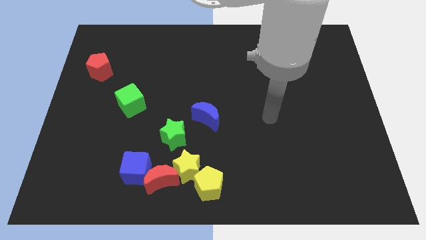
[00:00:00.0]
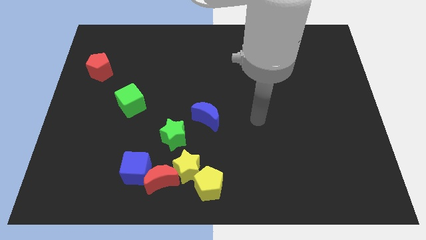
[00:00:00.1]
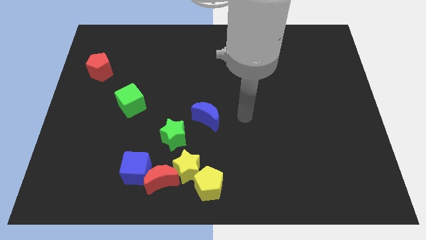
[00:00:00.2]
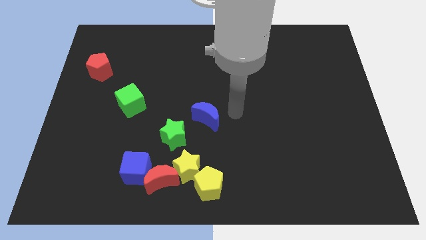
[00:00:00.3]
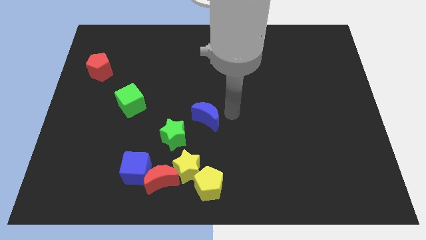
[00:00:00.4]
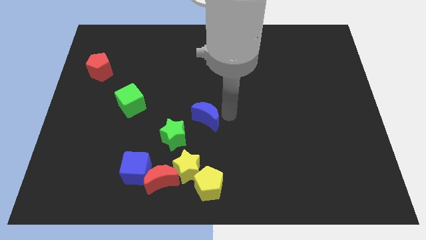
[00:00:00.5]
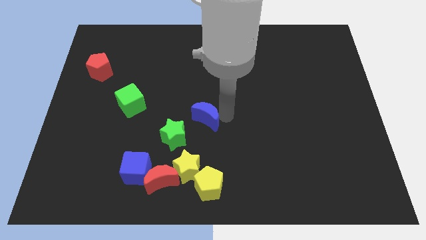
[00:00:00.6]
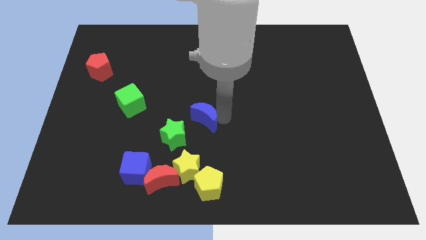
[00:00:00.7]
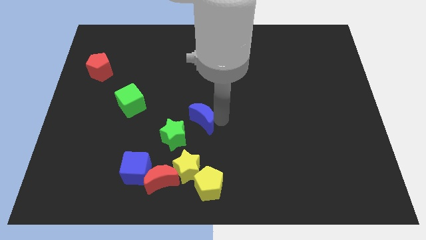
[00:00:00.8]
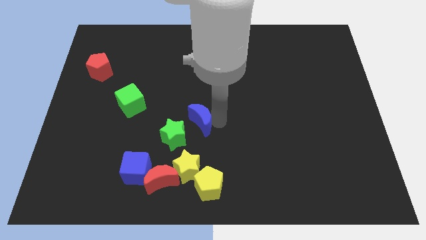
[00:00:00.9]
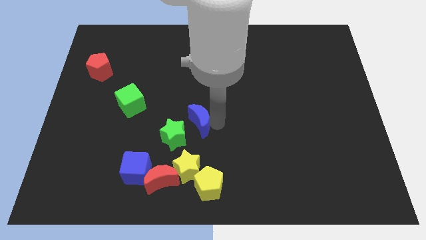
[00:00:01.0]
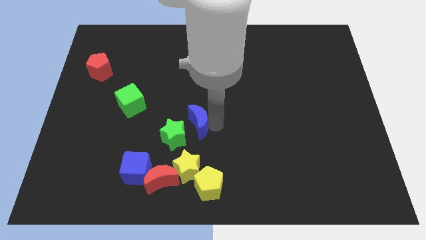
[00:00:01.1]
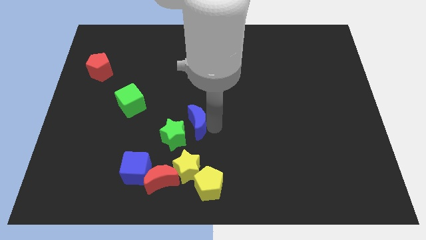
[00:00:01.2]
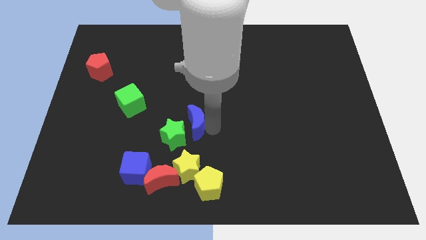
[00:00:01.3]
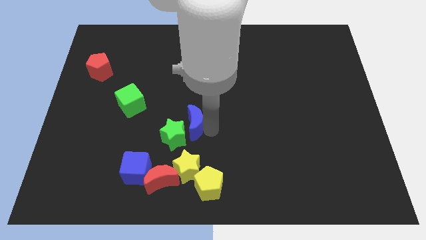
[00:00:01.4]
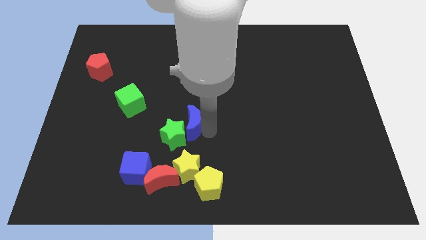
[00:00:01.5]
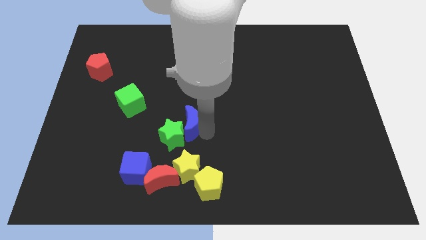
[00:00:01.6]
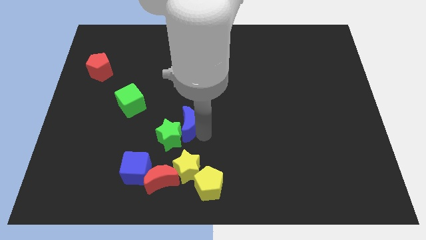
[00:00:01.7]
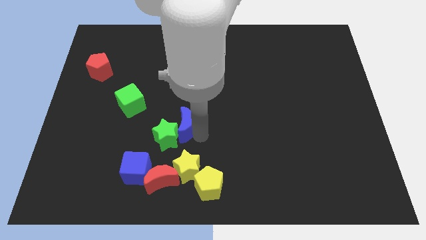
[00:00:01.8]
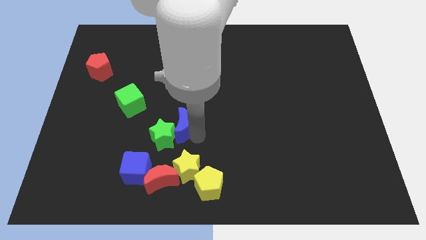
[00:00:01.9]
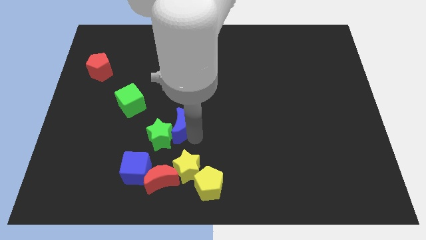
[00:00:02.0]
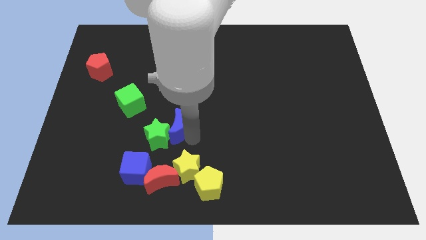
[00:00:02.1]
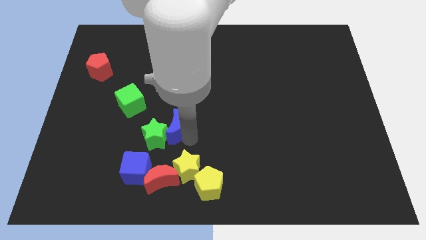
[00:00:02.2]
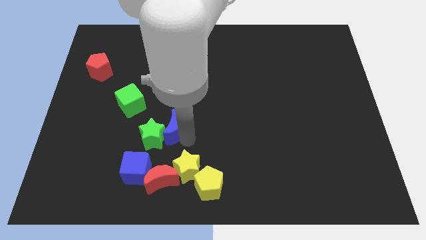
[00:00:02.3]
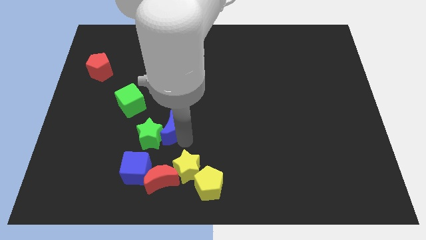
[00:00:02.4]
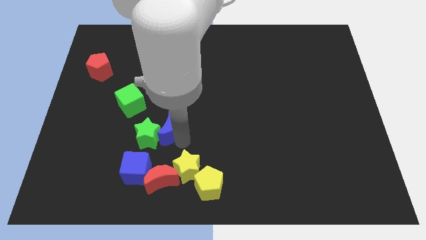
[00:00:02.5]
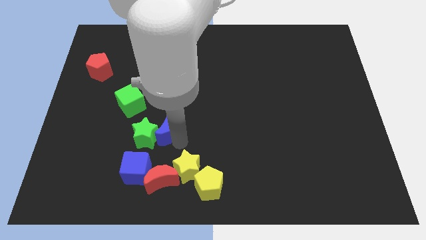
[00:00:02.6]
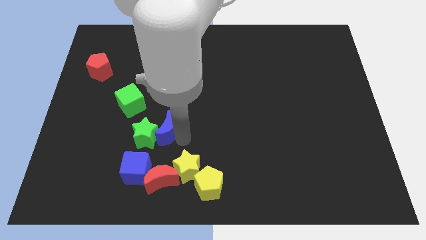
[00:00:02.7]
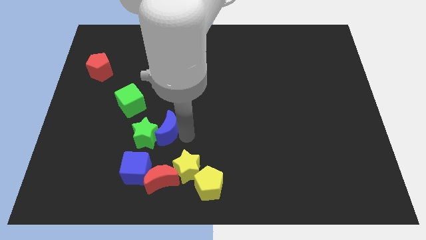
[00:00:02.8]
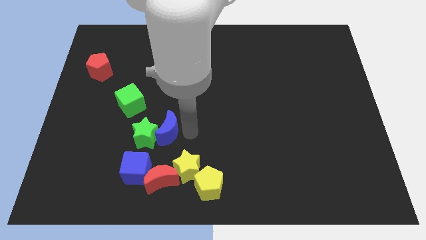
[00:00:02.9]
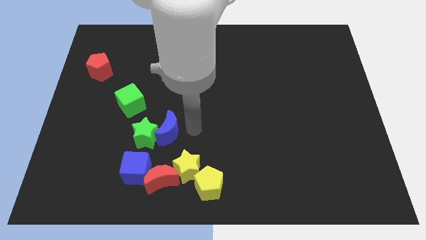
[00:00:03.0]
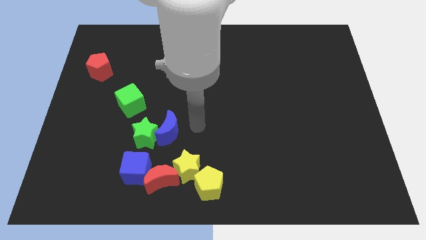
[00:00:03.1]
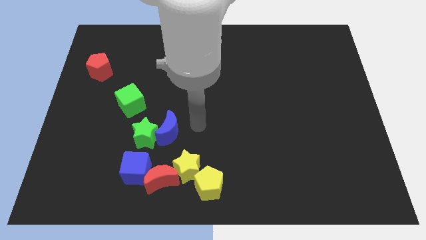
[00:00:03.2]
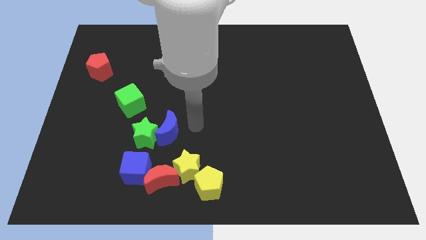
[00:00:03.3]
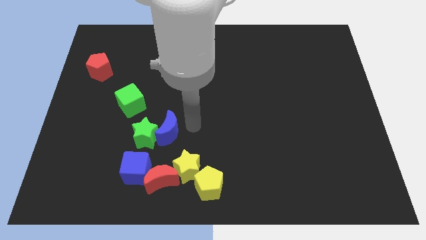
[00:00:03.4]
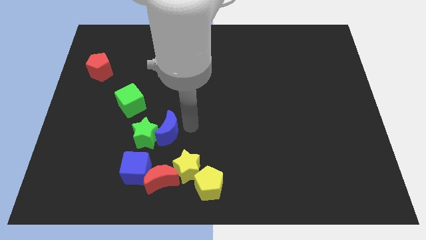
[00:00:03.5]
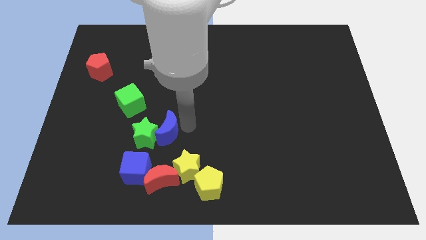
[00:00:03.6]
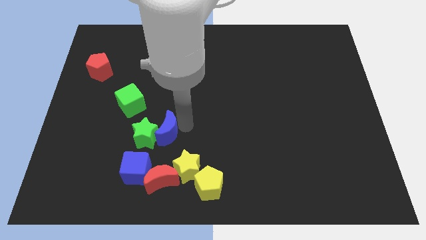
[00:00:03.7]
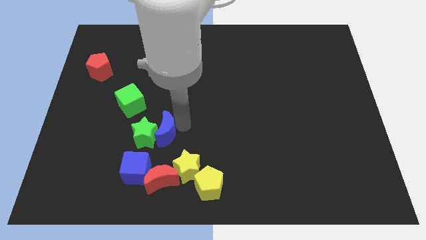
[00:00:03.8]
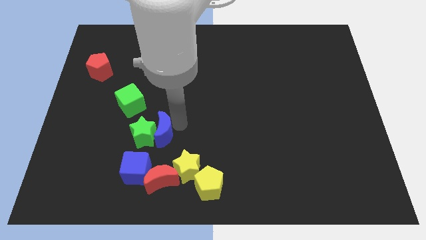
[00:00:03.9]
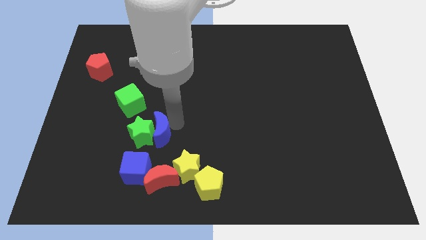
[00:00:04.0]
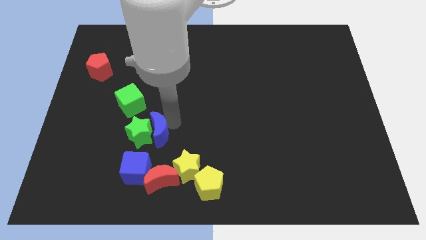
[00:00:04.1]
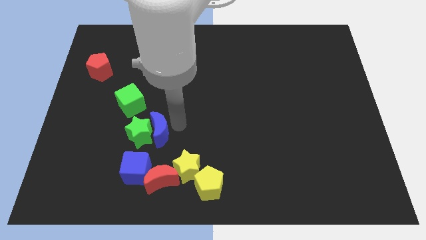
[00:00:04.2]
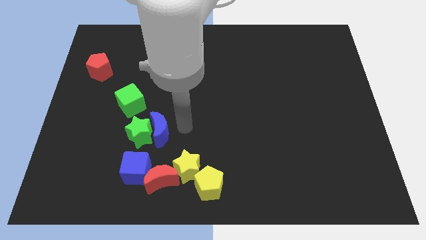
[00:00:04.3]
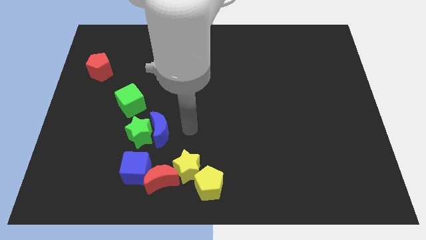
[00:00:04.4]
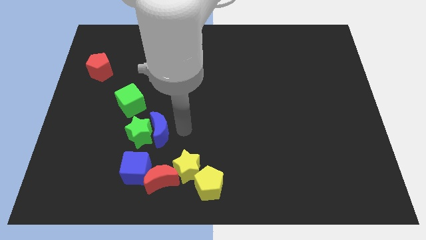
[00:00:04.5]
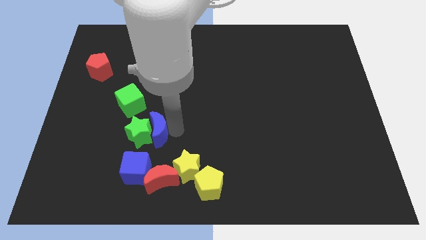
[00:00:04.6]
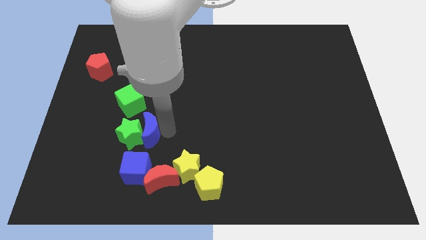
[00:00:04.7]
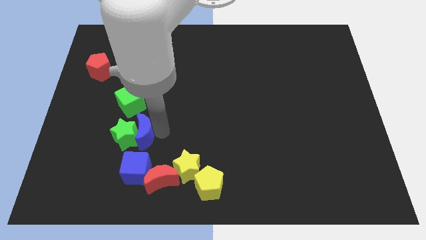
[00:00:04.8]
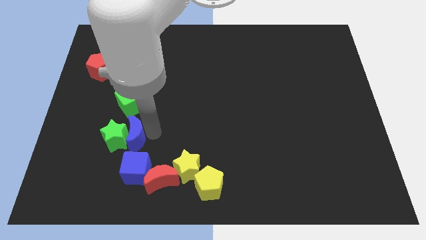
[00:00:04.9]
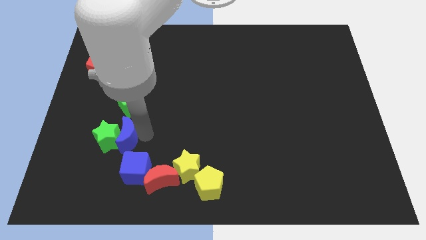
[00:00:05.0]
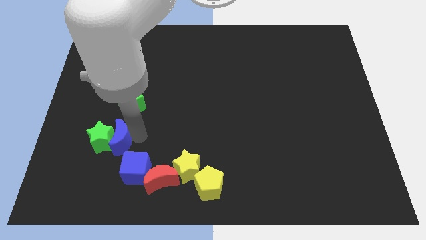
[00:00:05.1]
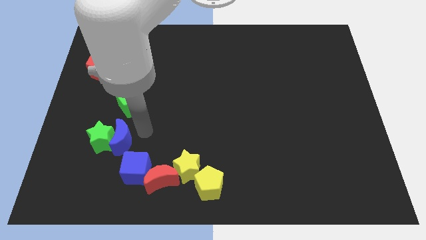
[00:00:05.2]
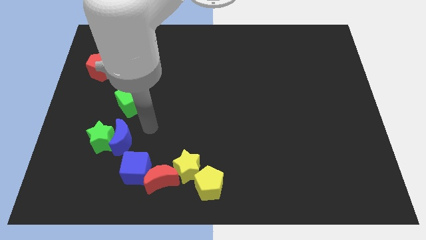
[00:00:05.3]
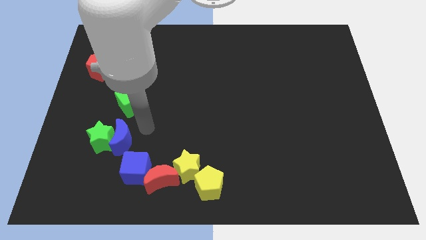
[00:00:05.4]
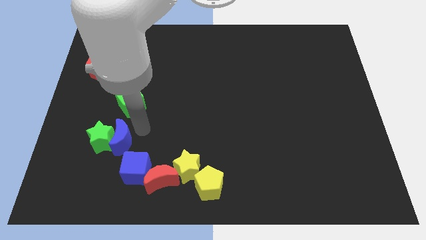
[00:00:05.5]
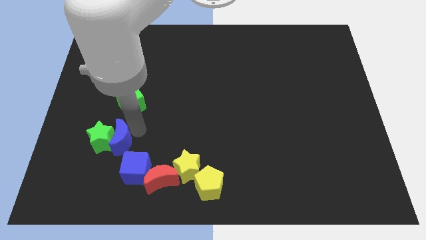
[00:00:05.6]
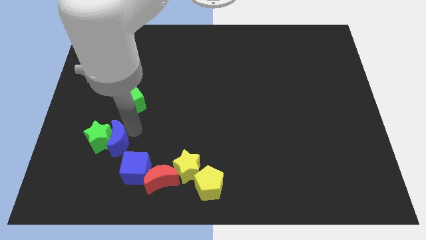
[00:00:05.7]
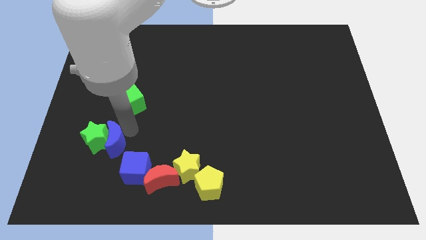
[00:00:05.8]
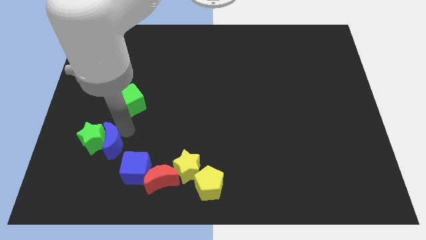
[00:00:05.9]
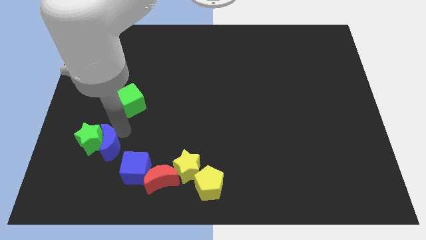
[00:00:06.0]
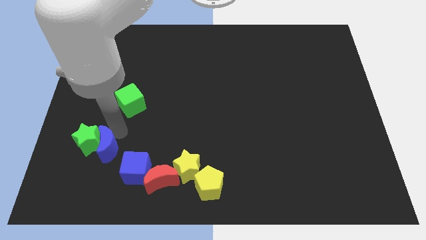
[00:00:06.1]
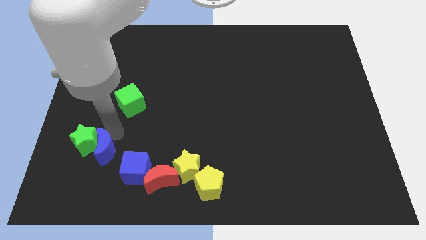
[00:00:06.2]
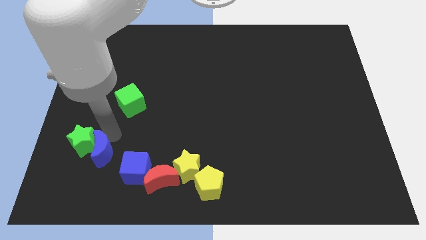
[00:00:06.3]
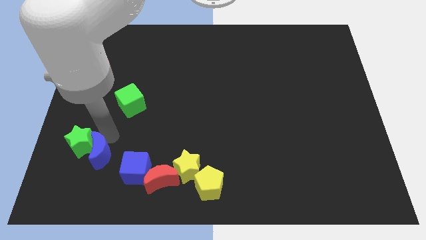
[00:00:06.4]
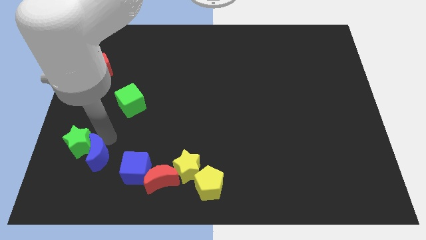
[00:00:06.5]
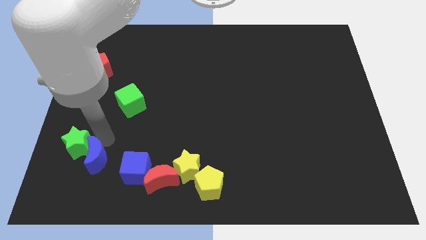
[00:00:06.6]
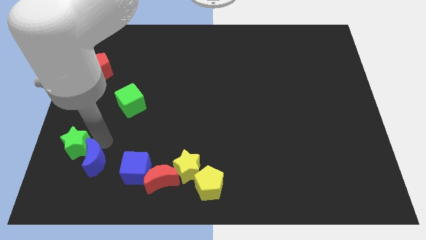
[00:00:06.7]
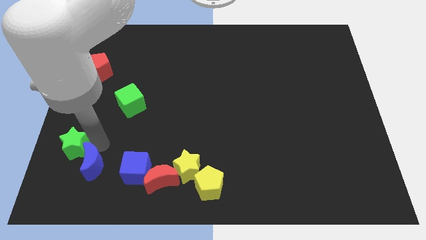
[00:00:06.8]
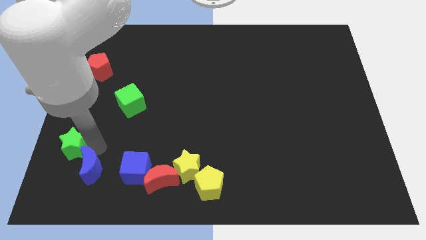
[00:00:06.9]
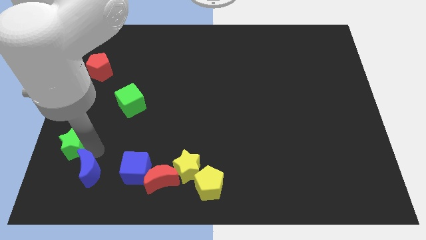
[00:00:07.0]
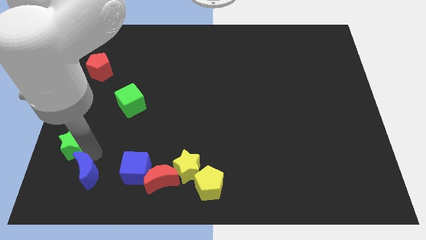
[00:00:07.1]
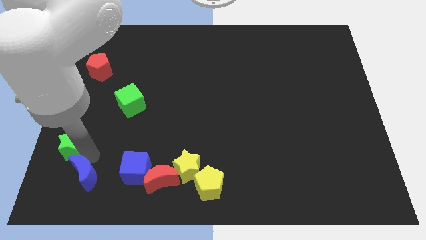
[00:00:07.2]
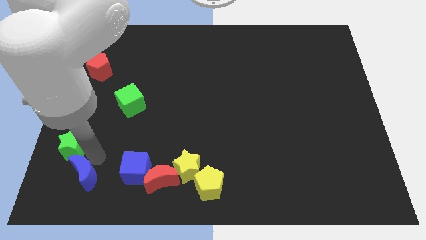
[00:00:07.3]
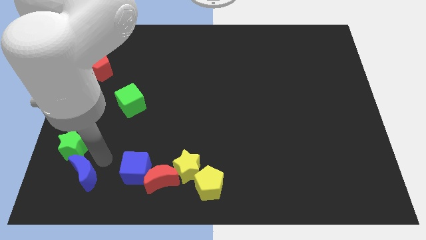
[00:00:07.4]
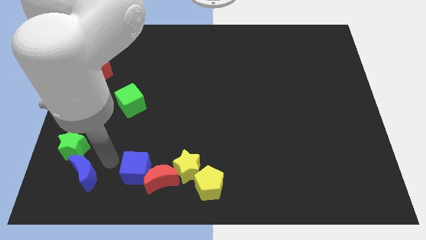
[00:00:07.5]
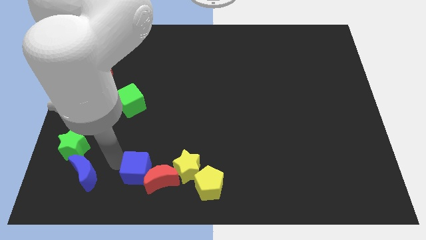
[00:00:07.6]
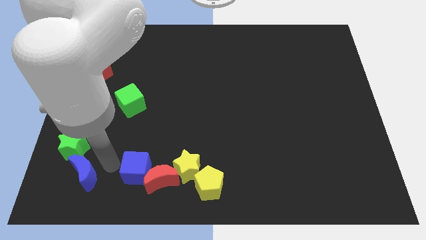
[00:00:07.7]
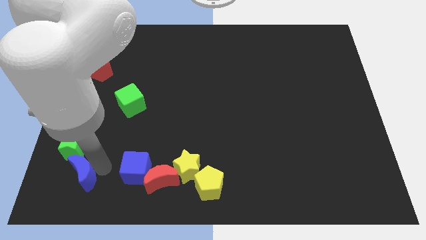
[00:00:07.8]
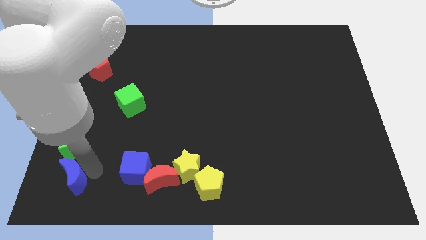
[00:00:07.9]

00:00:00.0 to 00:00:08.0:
push the blue moon to the bottom left corner
